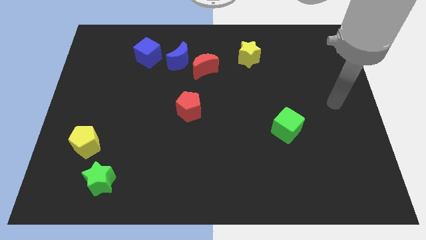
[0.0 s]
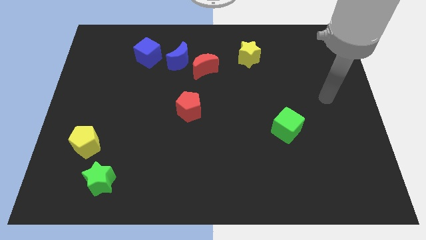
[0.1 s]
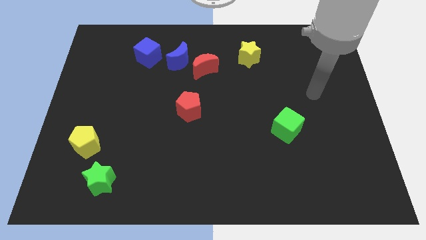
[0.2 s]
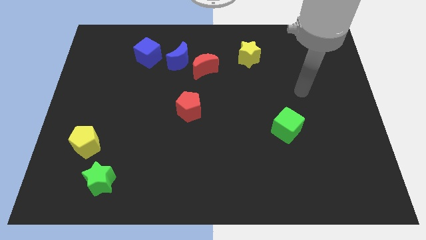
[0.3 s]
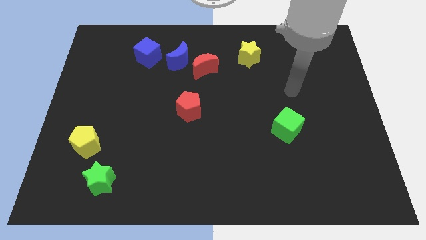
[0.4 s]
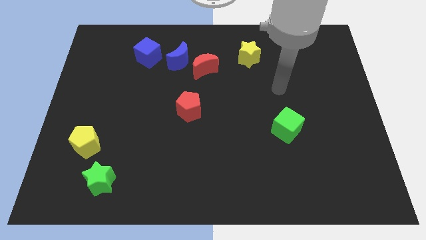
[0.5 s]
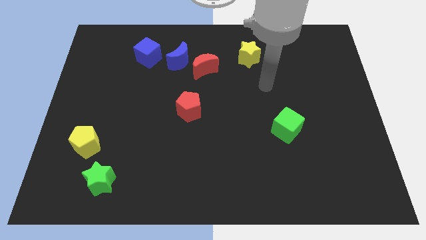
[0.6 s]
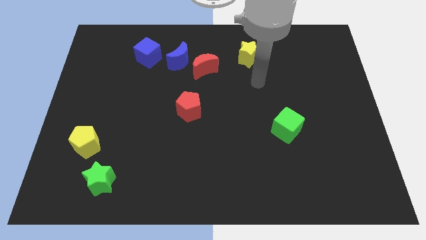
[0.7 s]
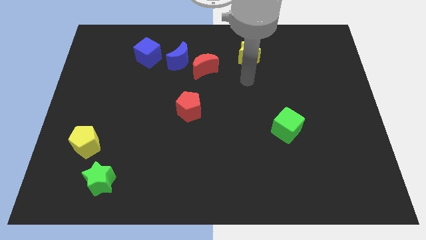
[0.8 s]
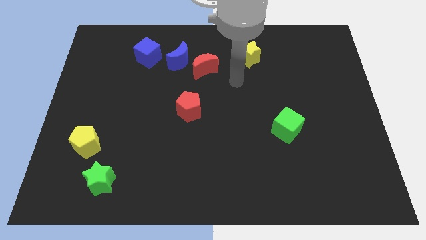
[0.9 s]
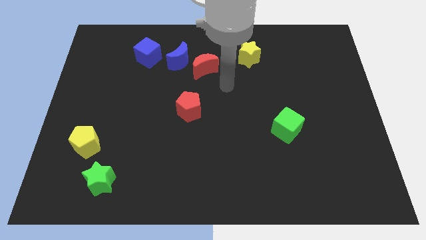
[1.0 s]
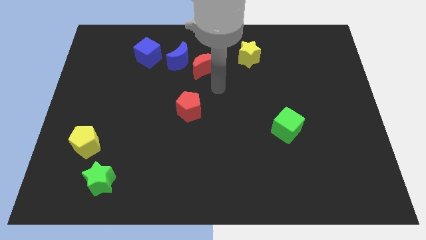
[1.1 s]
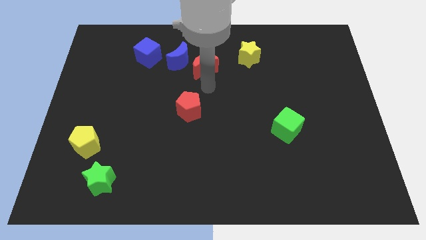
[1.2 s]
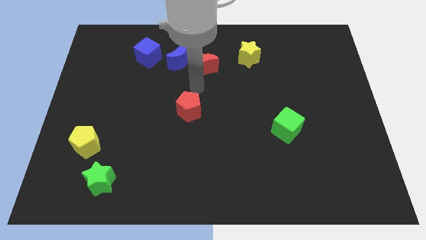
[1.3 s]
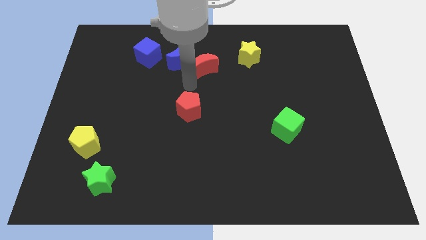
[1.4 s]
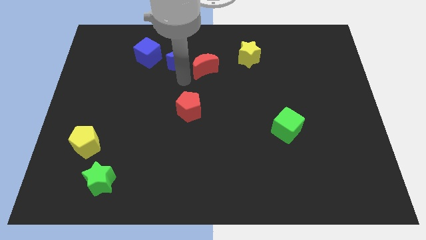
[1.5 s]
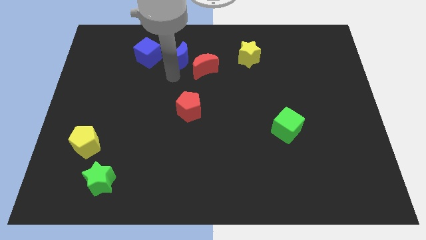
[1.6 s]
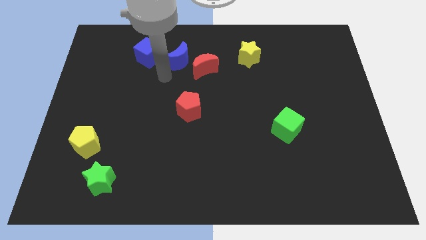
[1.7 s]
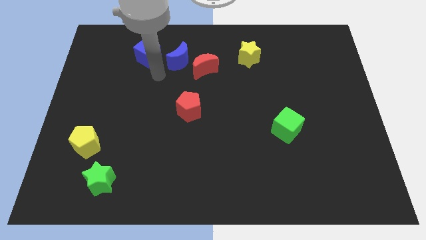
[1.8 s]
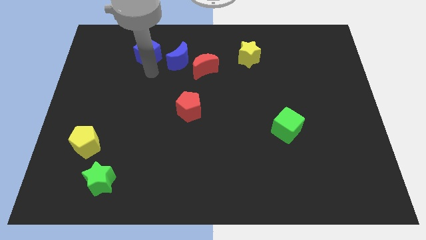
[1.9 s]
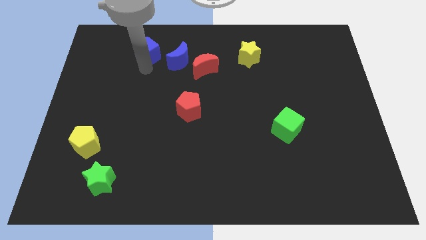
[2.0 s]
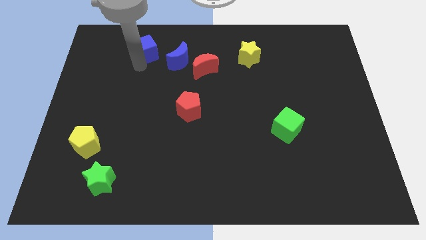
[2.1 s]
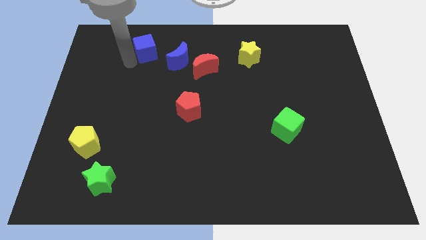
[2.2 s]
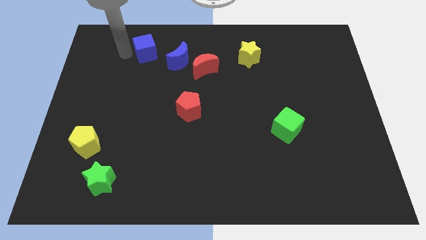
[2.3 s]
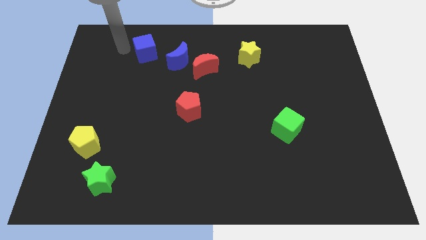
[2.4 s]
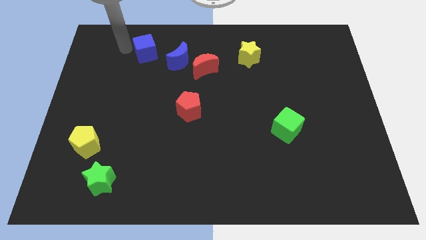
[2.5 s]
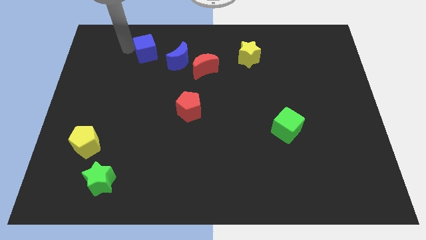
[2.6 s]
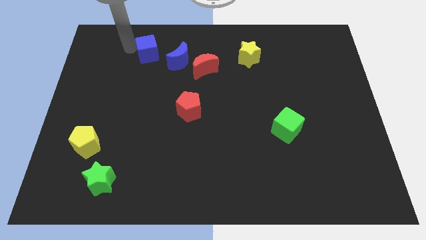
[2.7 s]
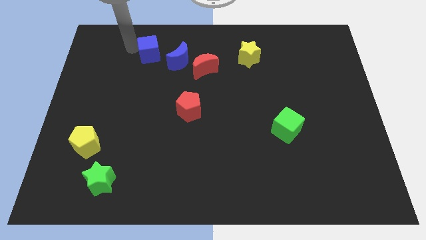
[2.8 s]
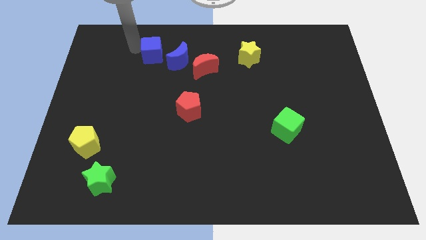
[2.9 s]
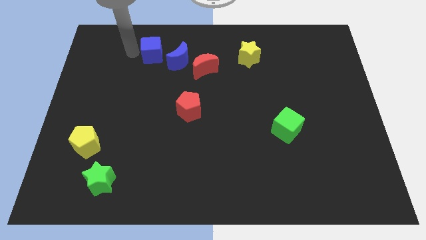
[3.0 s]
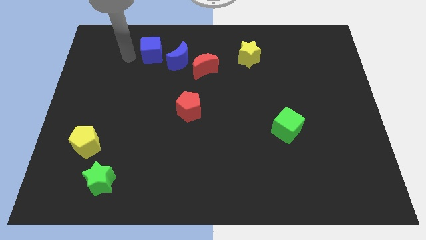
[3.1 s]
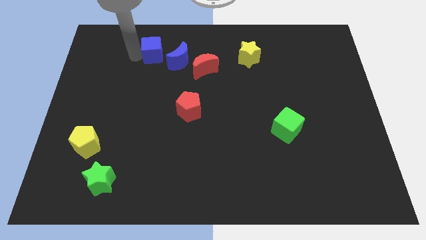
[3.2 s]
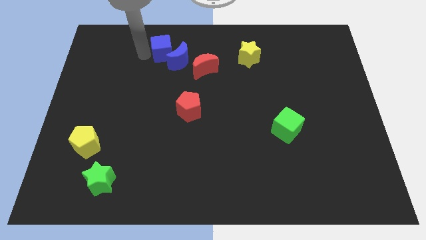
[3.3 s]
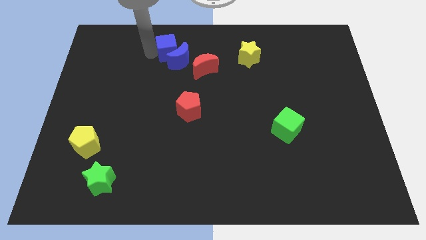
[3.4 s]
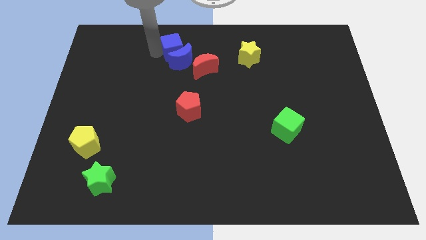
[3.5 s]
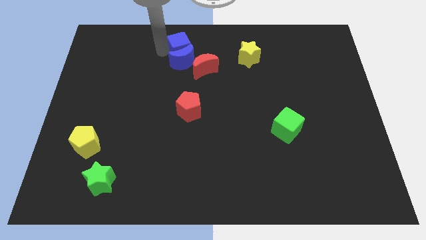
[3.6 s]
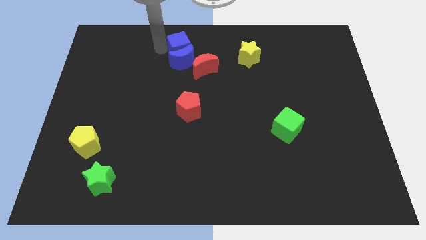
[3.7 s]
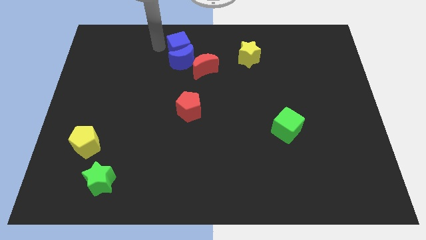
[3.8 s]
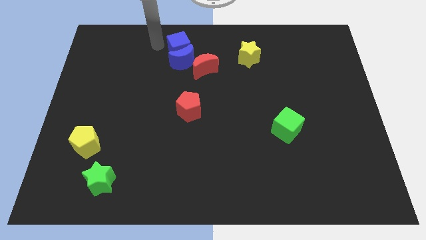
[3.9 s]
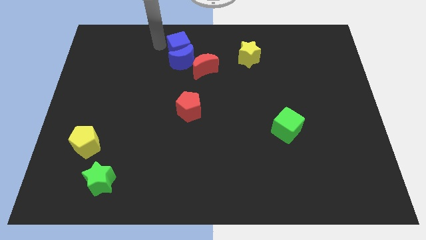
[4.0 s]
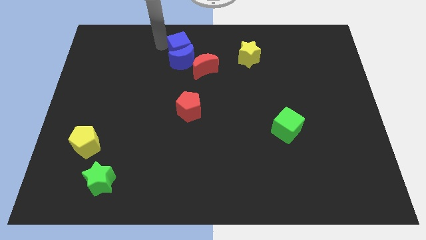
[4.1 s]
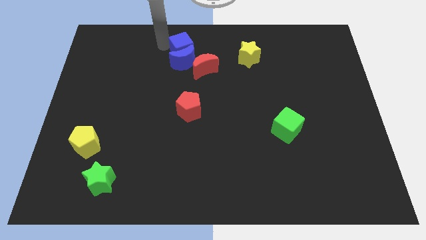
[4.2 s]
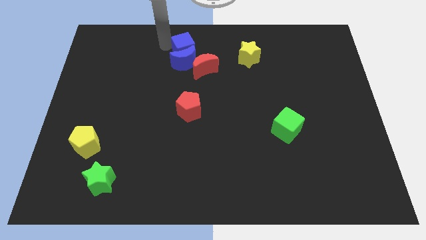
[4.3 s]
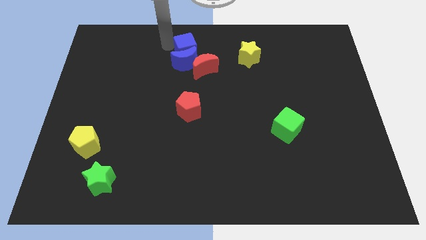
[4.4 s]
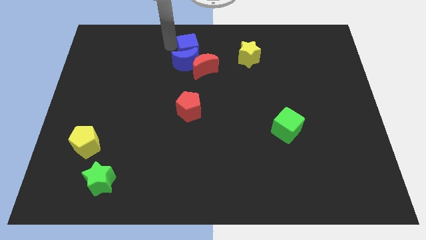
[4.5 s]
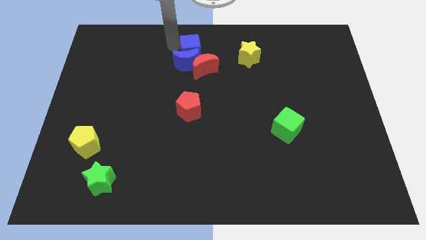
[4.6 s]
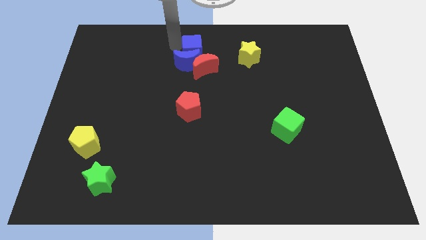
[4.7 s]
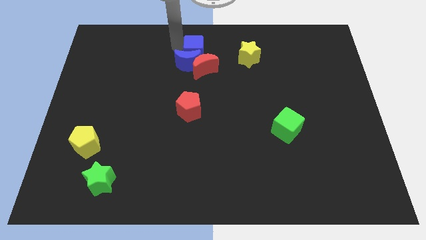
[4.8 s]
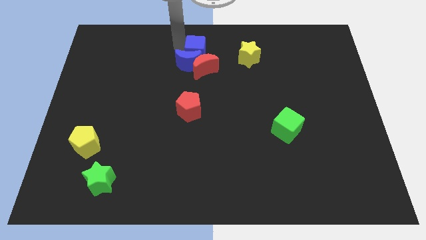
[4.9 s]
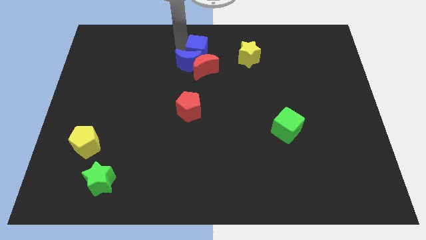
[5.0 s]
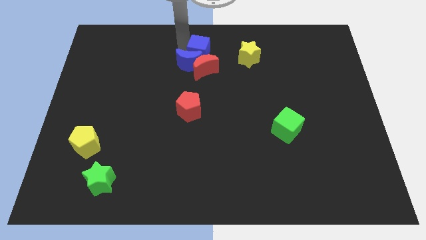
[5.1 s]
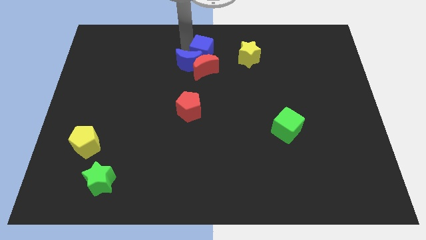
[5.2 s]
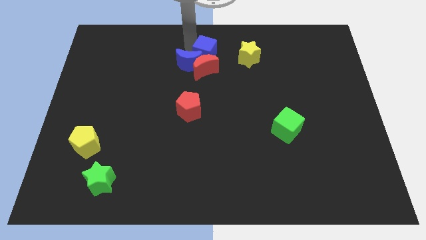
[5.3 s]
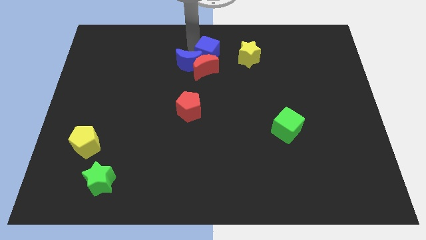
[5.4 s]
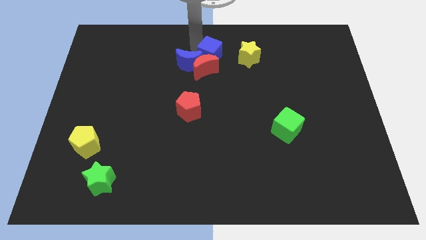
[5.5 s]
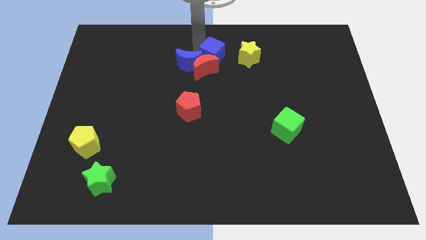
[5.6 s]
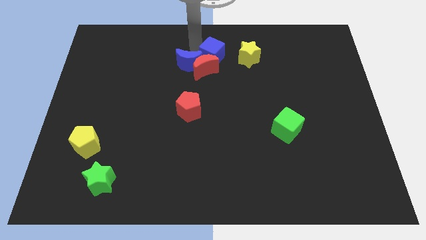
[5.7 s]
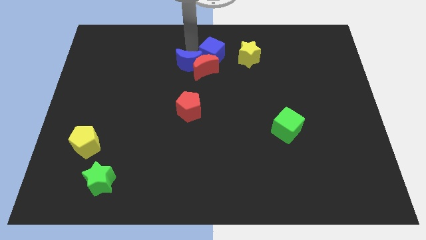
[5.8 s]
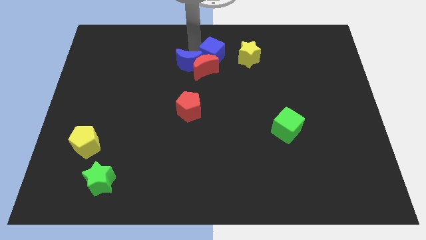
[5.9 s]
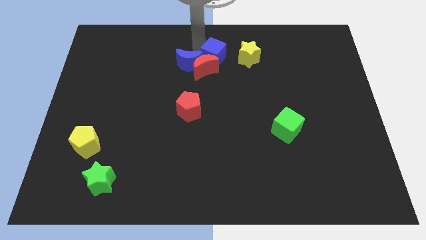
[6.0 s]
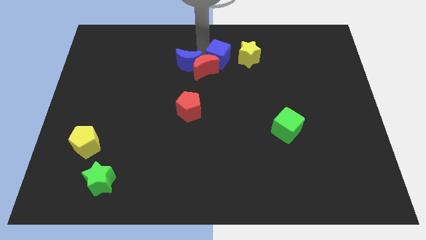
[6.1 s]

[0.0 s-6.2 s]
put the blue cube just right of the red moon

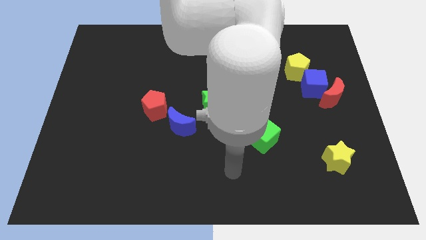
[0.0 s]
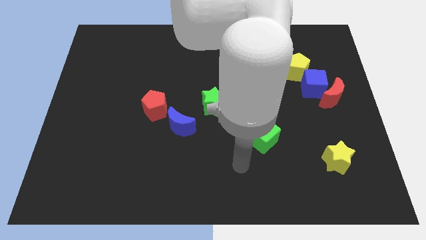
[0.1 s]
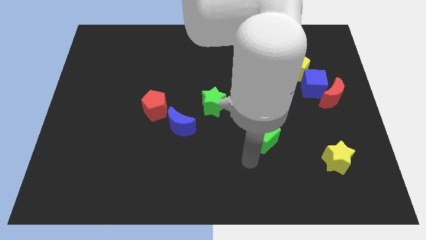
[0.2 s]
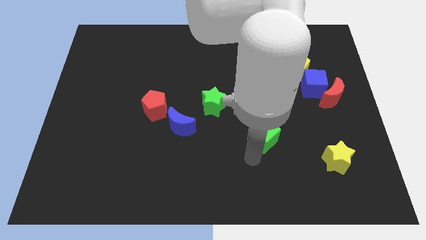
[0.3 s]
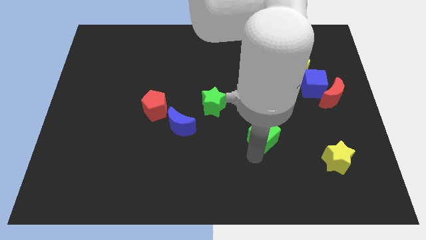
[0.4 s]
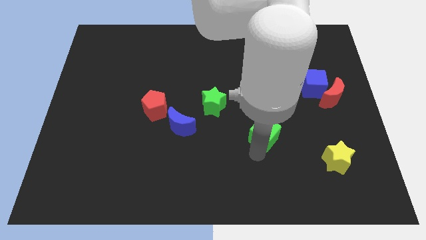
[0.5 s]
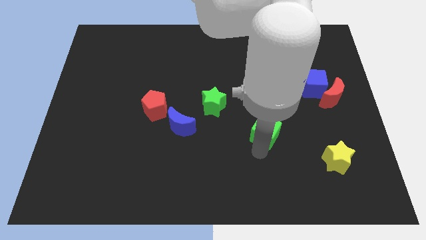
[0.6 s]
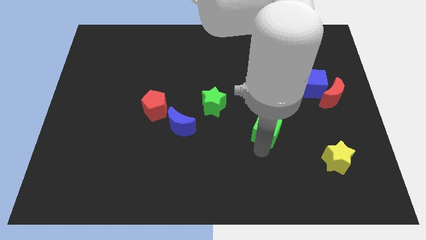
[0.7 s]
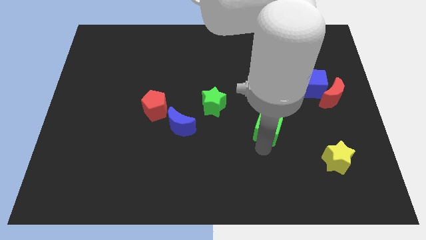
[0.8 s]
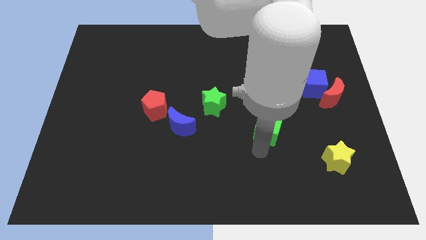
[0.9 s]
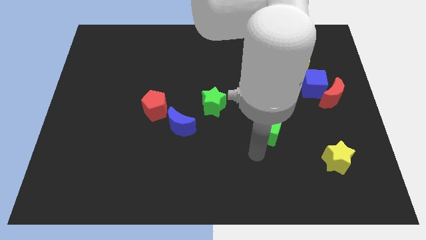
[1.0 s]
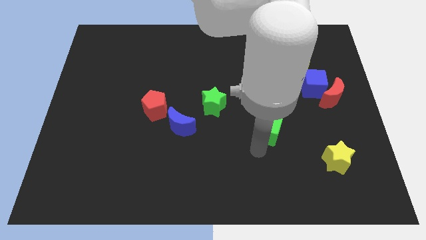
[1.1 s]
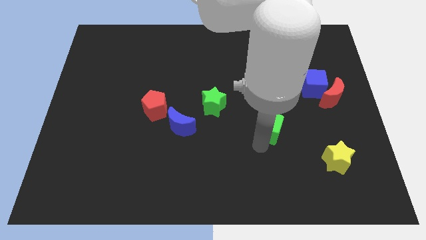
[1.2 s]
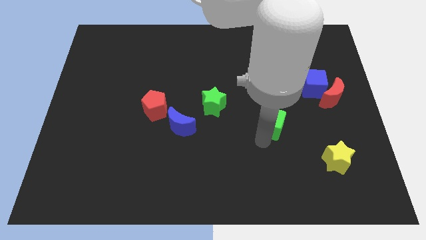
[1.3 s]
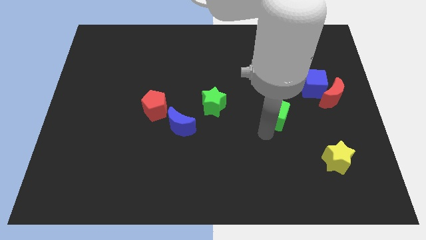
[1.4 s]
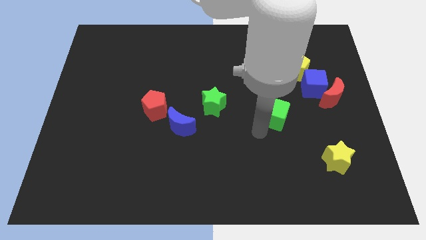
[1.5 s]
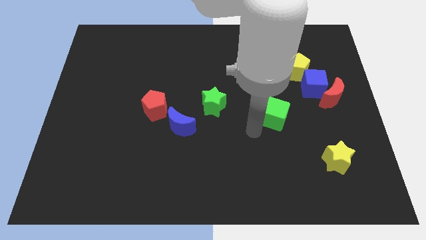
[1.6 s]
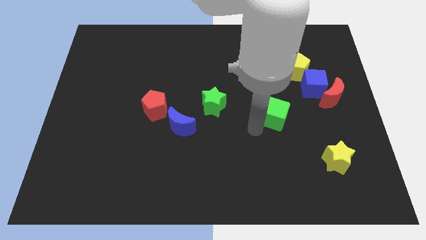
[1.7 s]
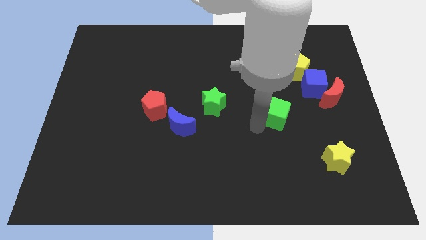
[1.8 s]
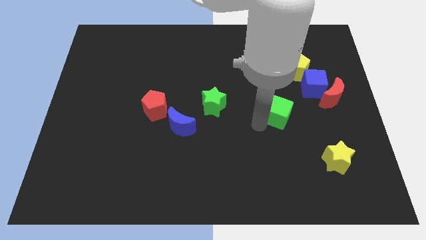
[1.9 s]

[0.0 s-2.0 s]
push the green cube to the bottom left of the blue cube
